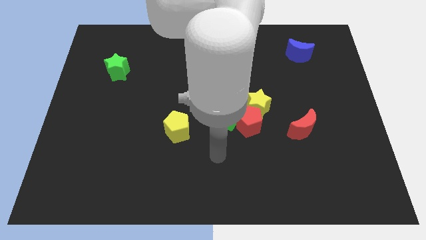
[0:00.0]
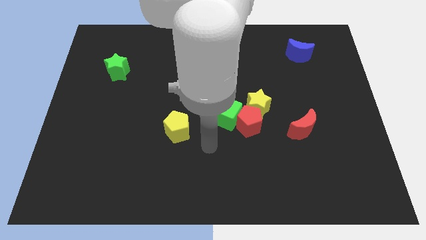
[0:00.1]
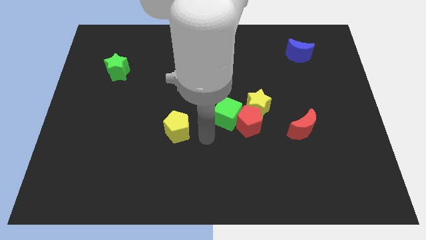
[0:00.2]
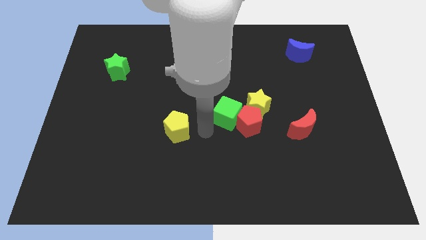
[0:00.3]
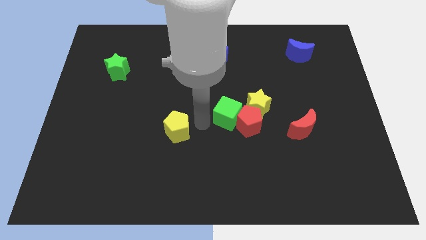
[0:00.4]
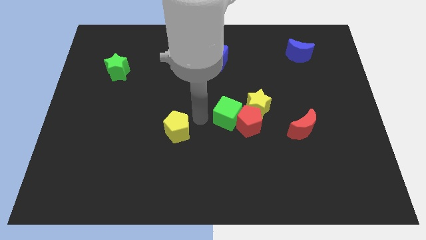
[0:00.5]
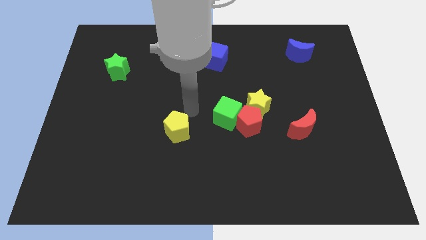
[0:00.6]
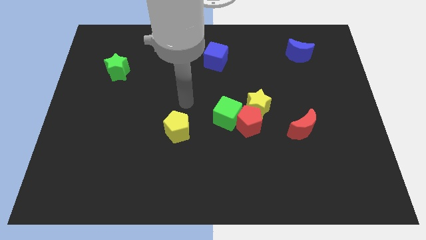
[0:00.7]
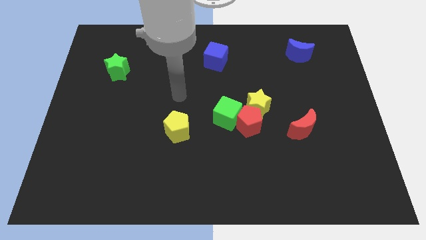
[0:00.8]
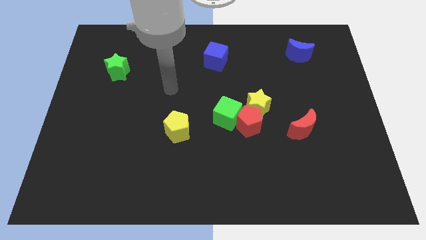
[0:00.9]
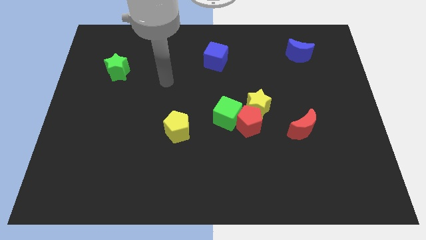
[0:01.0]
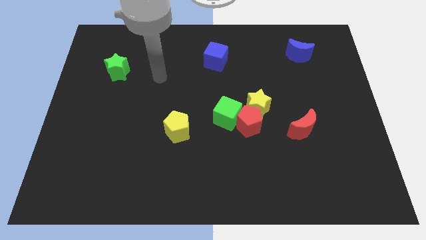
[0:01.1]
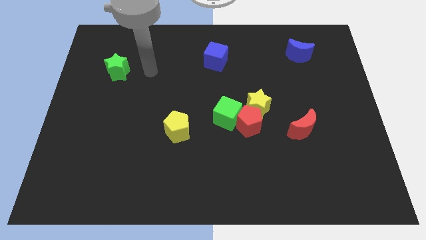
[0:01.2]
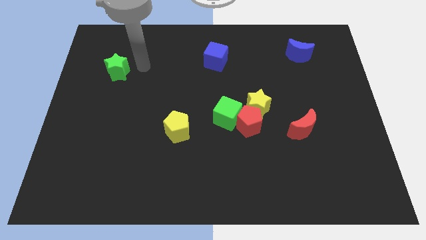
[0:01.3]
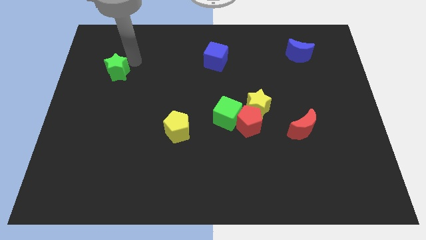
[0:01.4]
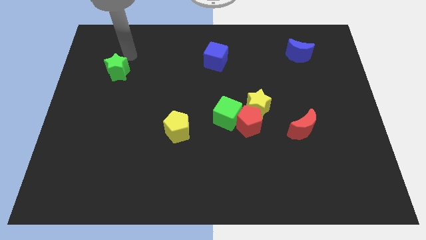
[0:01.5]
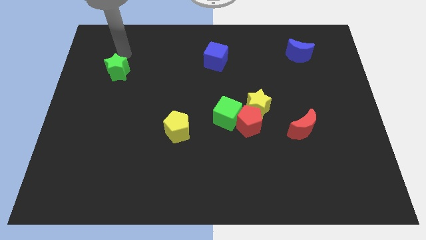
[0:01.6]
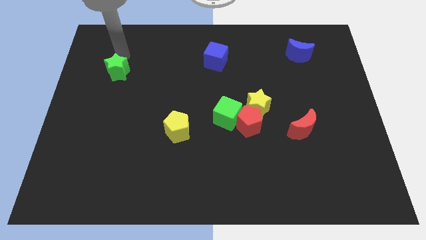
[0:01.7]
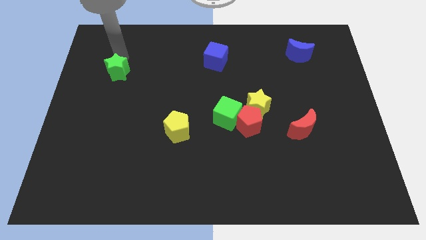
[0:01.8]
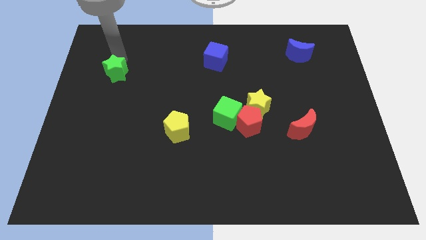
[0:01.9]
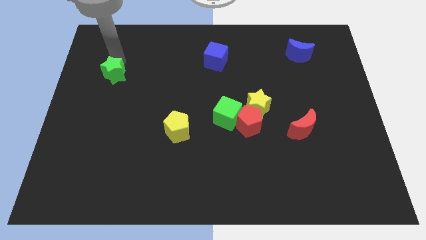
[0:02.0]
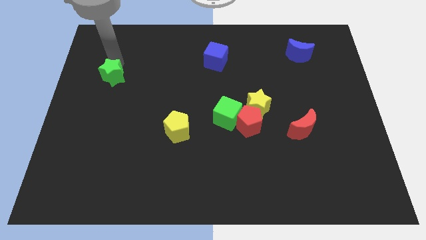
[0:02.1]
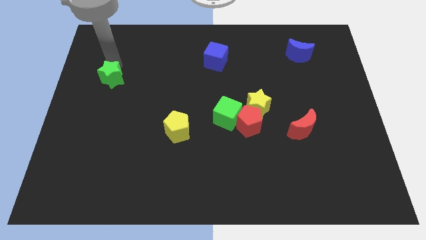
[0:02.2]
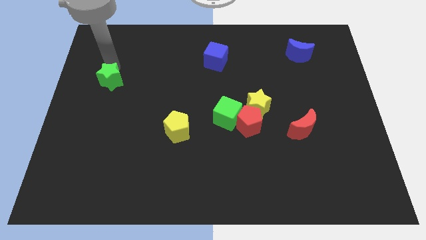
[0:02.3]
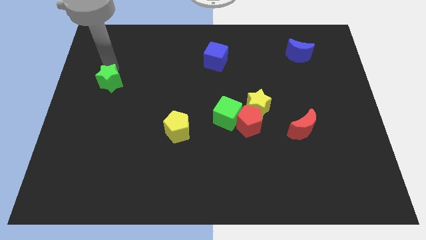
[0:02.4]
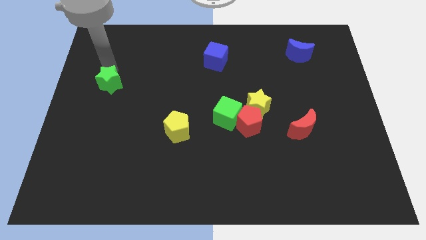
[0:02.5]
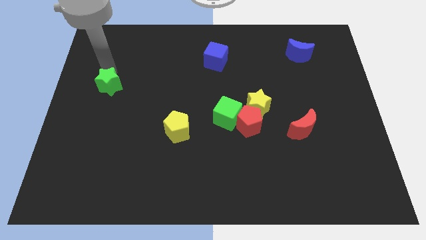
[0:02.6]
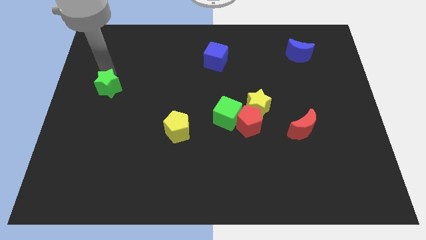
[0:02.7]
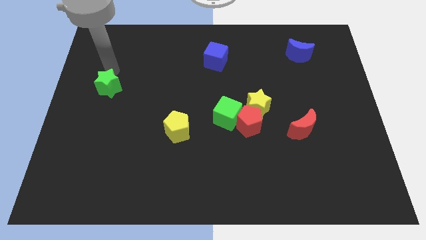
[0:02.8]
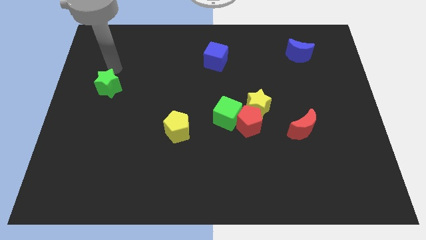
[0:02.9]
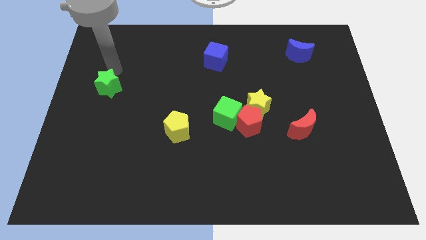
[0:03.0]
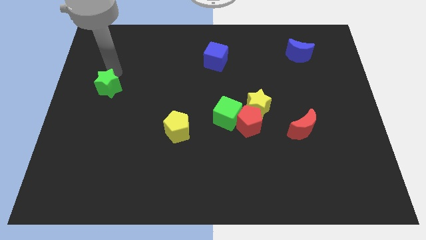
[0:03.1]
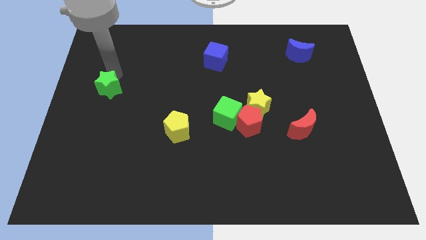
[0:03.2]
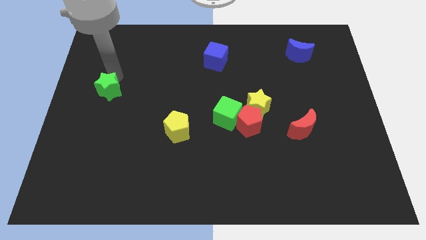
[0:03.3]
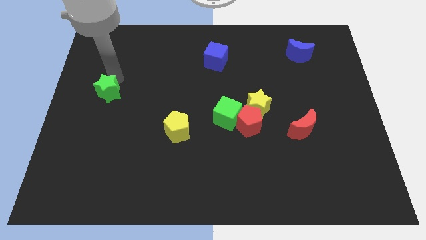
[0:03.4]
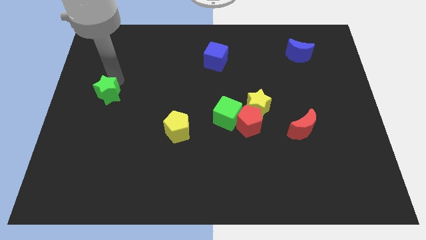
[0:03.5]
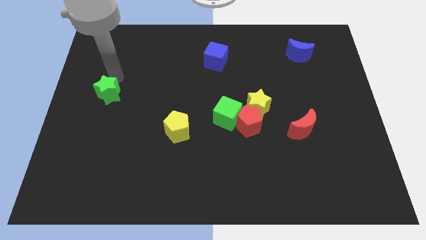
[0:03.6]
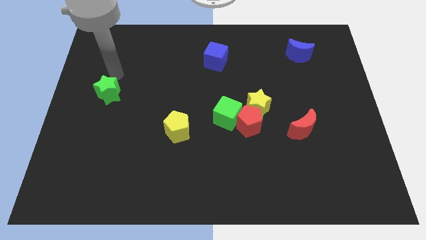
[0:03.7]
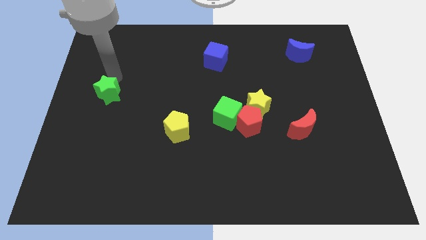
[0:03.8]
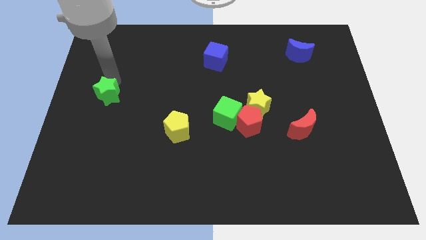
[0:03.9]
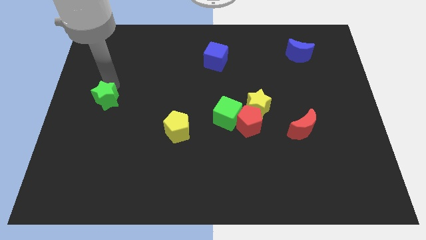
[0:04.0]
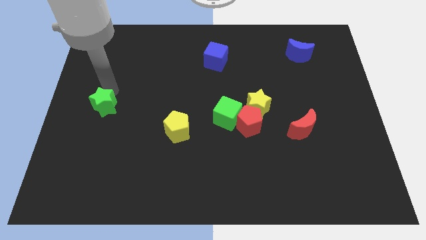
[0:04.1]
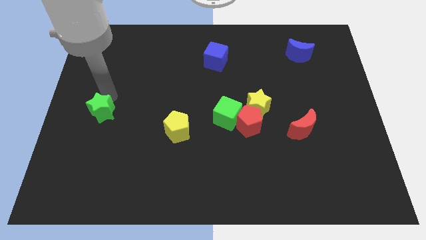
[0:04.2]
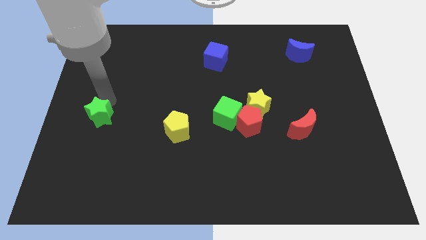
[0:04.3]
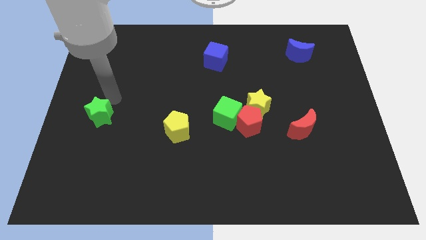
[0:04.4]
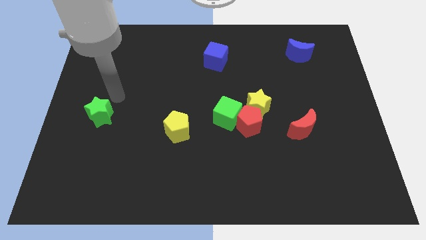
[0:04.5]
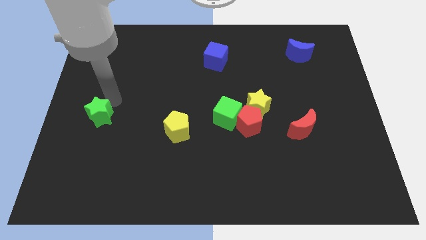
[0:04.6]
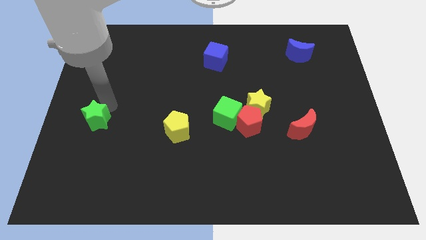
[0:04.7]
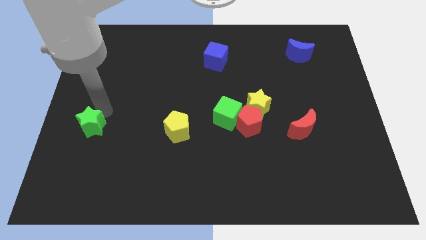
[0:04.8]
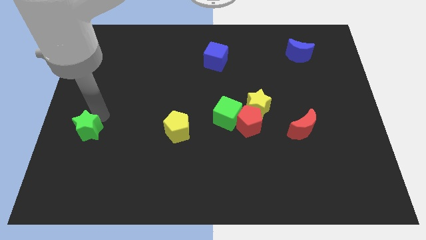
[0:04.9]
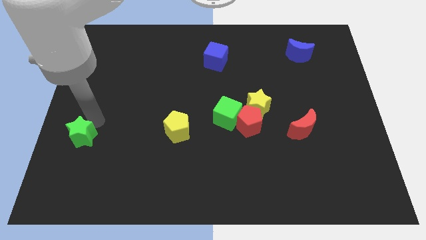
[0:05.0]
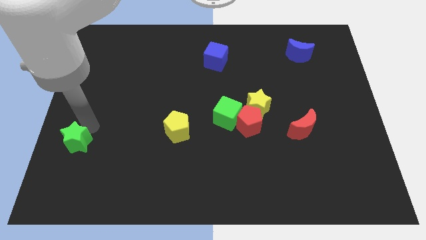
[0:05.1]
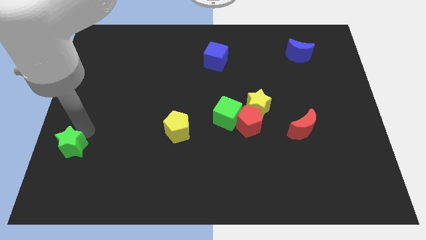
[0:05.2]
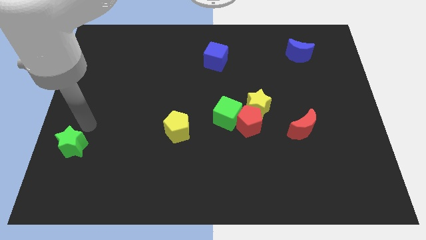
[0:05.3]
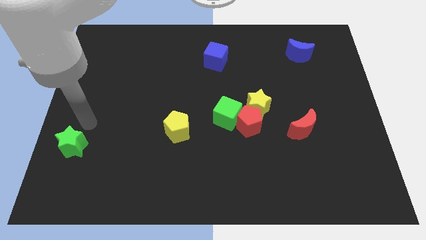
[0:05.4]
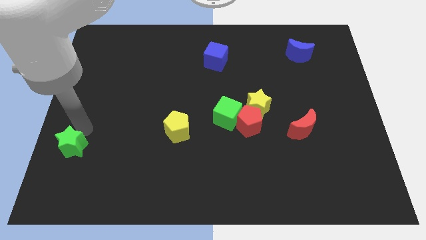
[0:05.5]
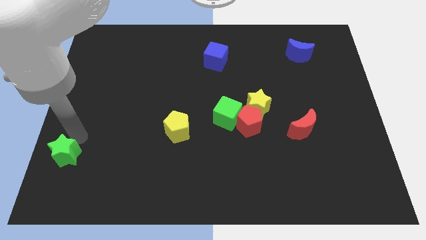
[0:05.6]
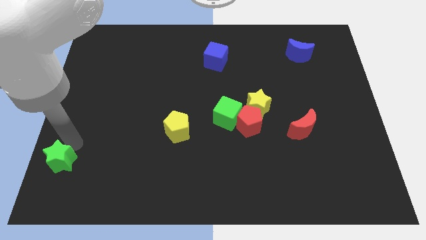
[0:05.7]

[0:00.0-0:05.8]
slide the green star to the bottom left of the board

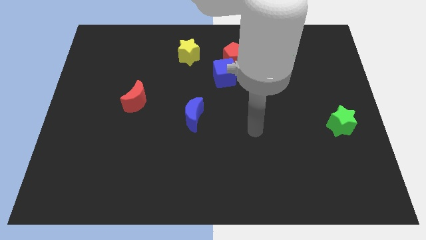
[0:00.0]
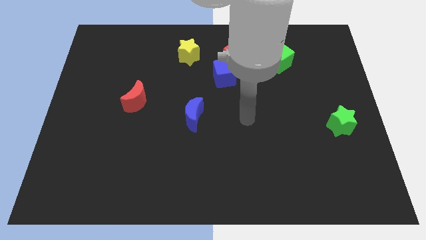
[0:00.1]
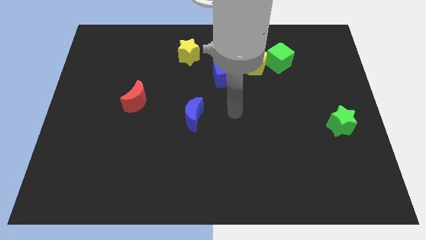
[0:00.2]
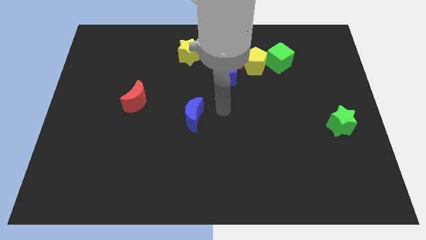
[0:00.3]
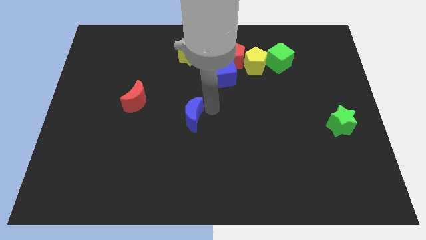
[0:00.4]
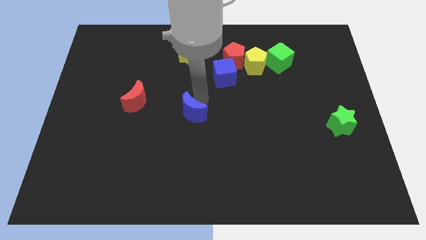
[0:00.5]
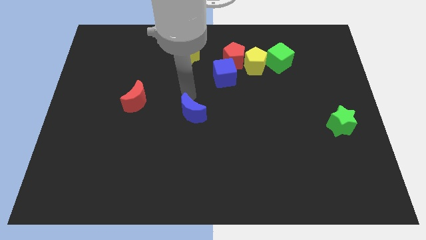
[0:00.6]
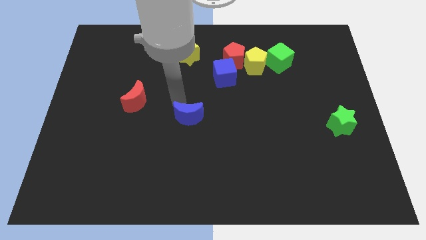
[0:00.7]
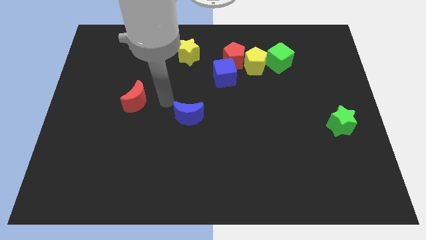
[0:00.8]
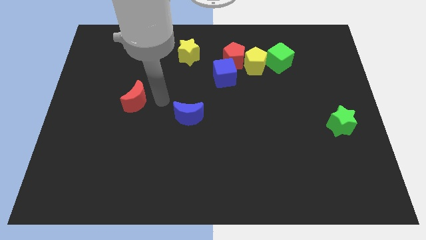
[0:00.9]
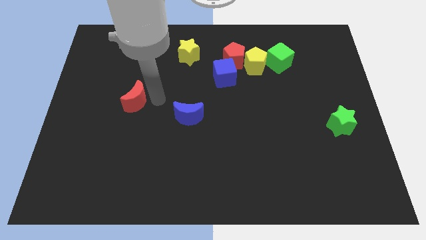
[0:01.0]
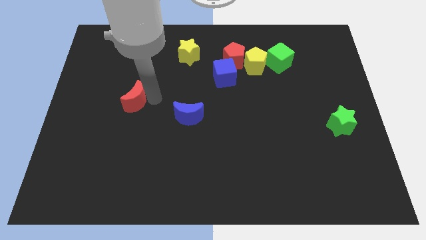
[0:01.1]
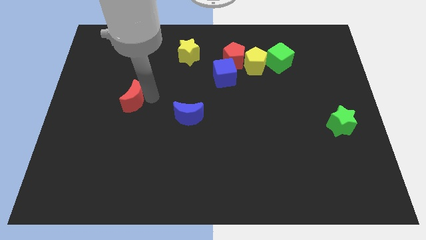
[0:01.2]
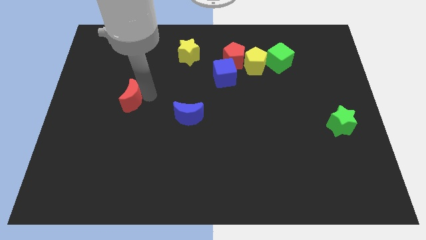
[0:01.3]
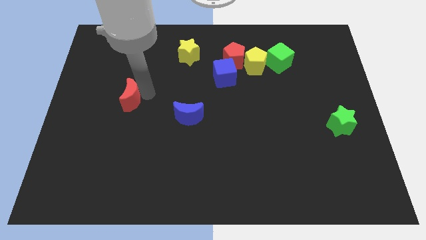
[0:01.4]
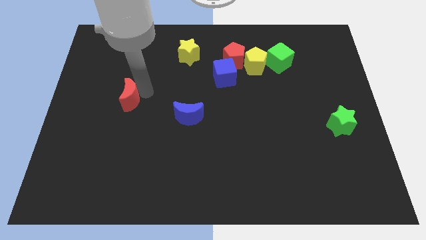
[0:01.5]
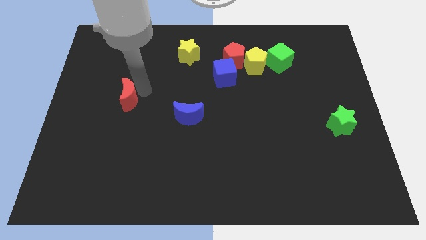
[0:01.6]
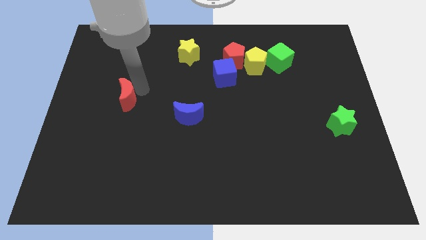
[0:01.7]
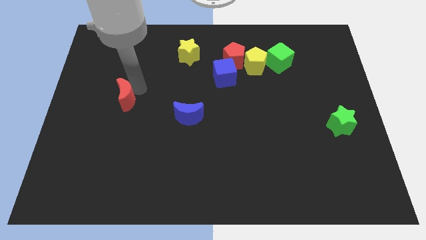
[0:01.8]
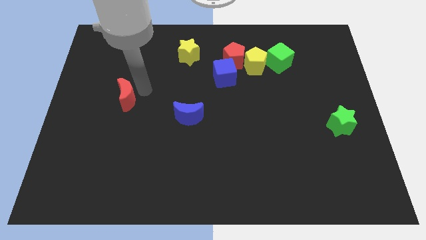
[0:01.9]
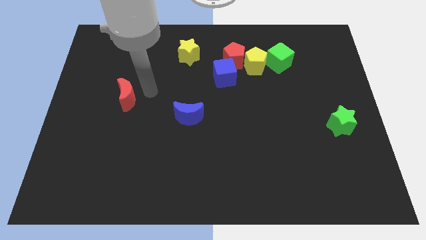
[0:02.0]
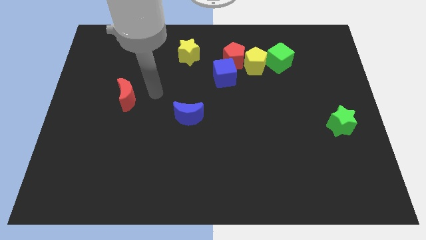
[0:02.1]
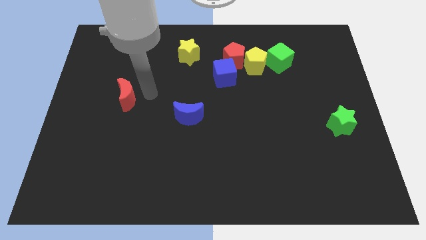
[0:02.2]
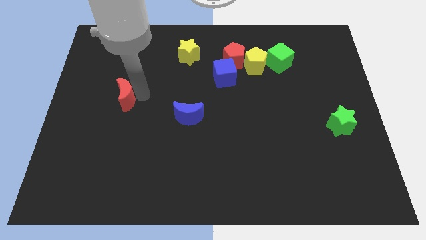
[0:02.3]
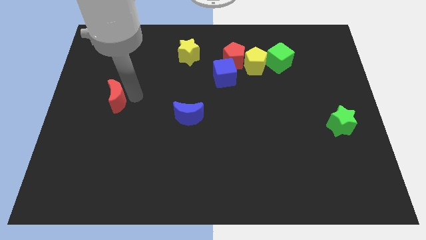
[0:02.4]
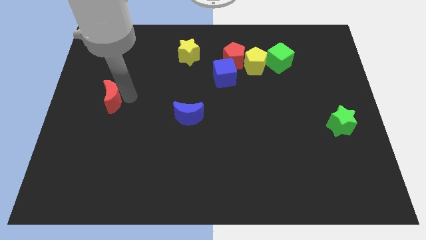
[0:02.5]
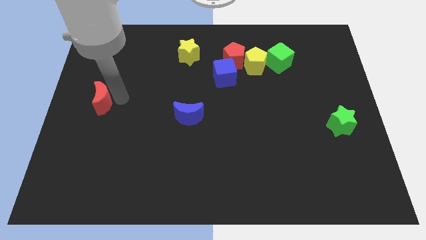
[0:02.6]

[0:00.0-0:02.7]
put the red moon to the center left
